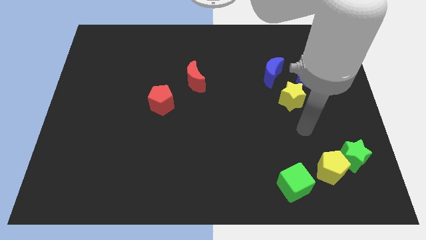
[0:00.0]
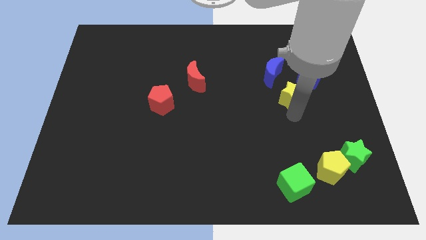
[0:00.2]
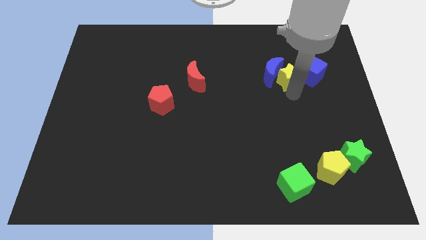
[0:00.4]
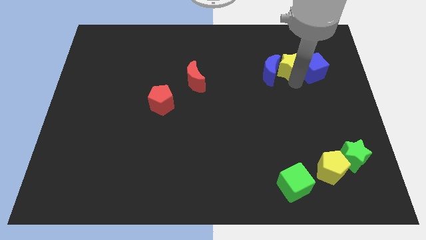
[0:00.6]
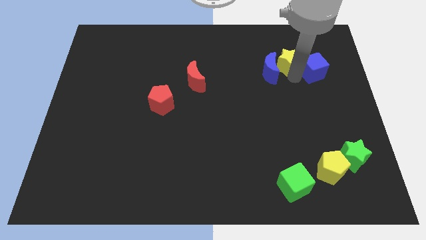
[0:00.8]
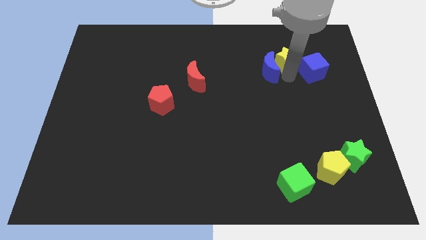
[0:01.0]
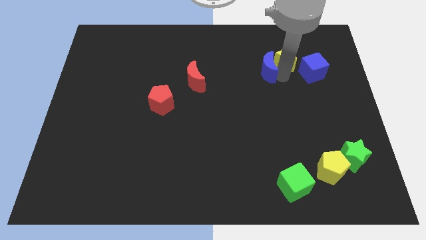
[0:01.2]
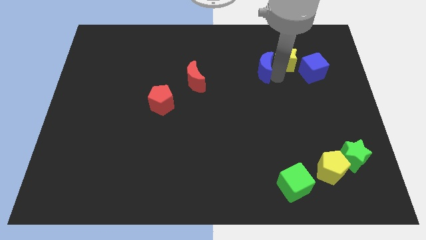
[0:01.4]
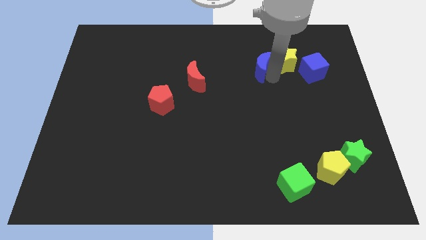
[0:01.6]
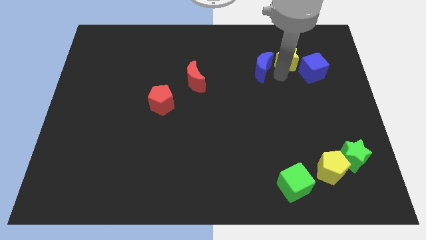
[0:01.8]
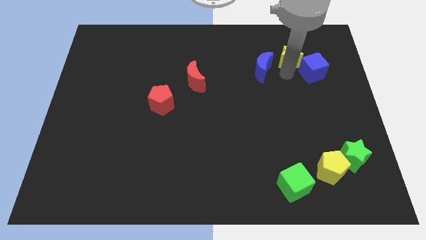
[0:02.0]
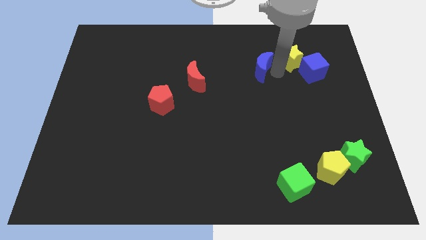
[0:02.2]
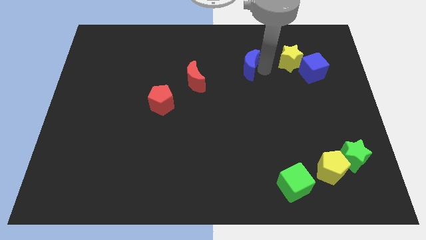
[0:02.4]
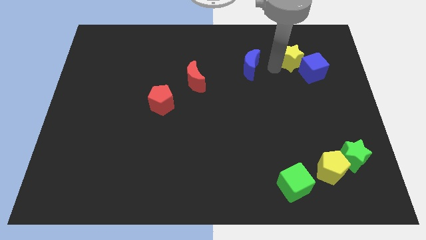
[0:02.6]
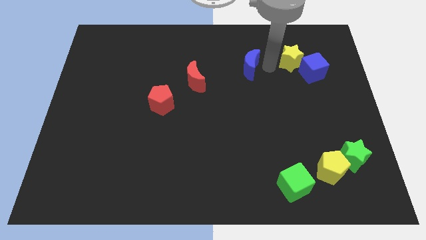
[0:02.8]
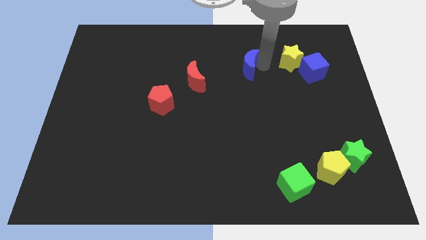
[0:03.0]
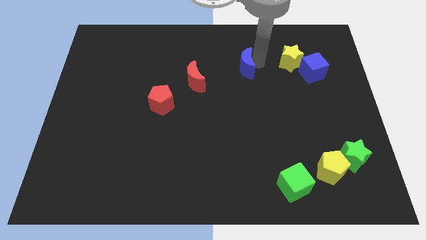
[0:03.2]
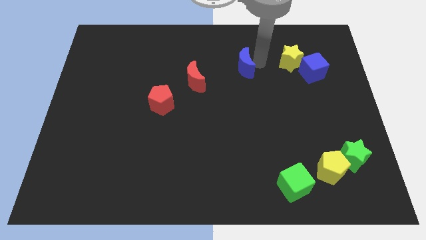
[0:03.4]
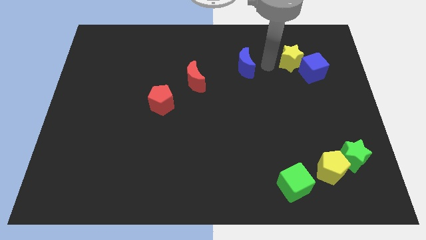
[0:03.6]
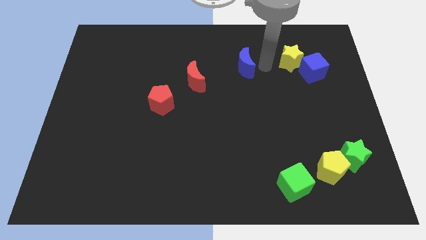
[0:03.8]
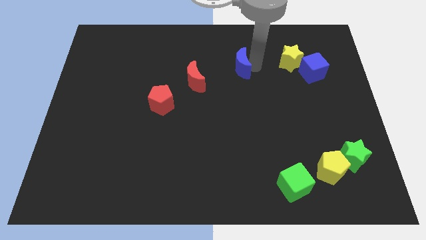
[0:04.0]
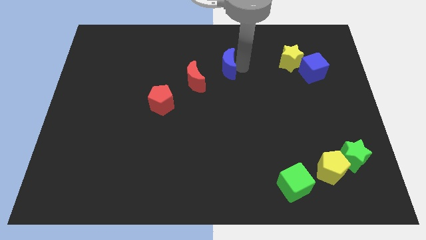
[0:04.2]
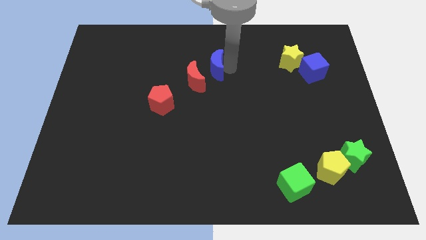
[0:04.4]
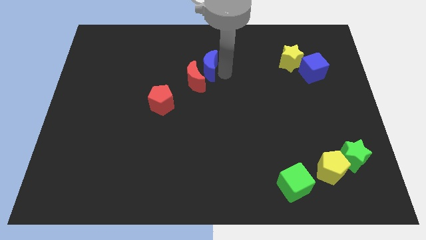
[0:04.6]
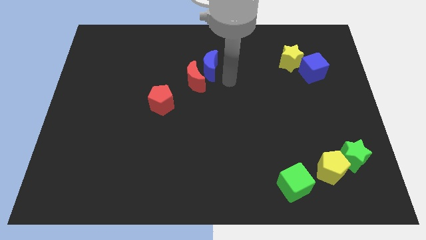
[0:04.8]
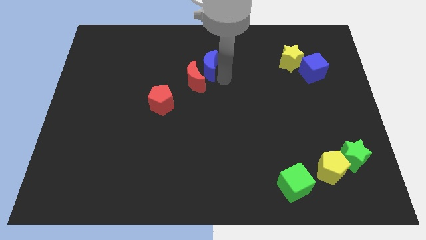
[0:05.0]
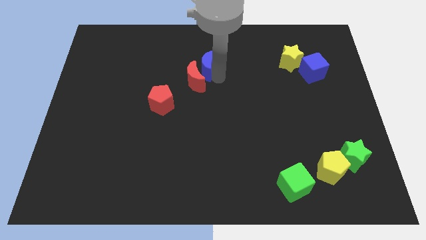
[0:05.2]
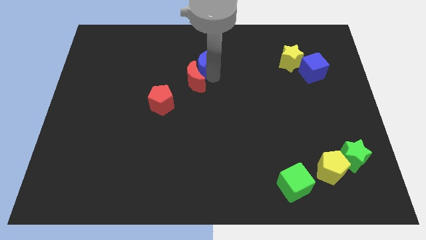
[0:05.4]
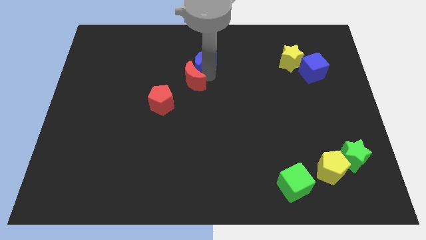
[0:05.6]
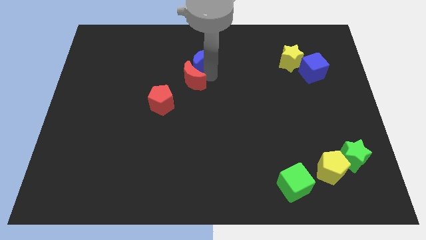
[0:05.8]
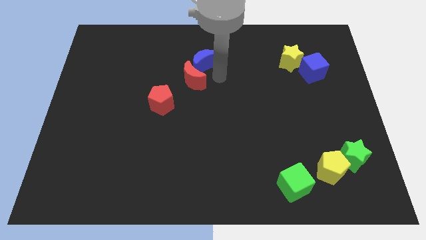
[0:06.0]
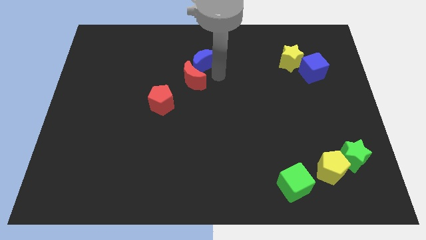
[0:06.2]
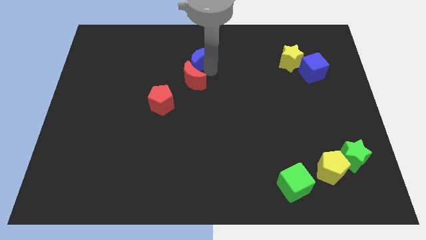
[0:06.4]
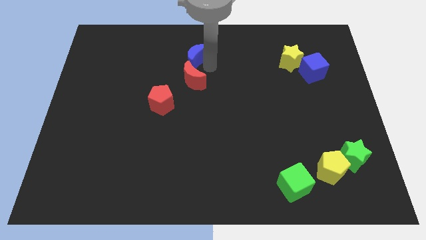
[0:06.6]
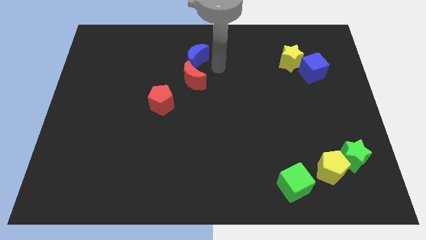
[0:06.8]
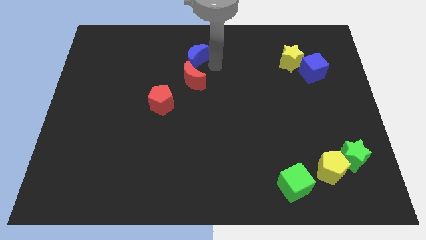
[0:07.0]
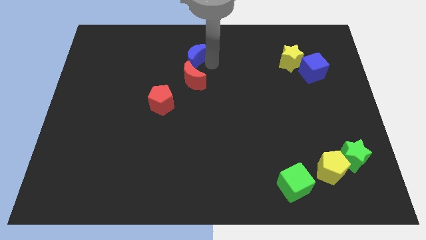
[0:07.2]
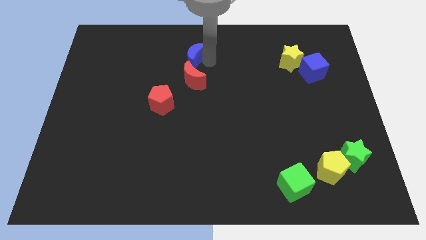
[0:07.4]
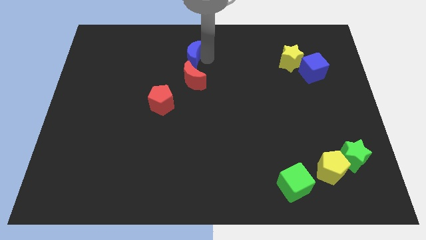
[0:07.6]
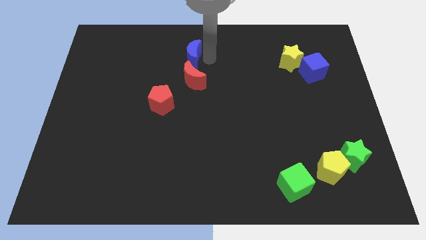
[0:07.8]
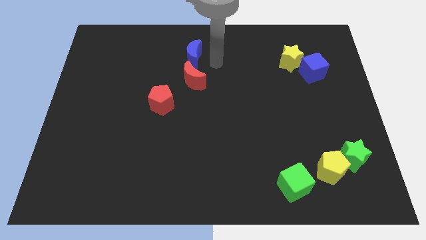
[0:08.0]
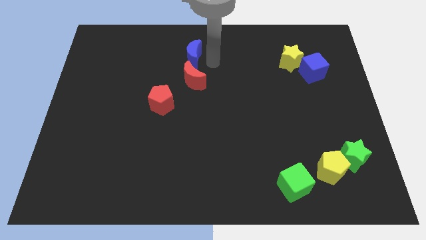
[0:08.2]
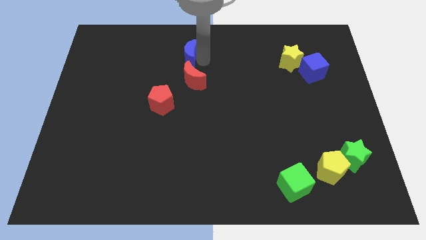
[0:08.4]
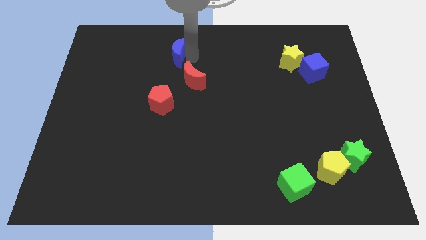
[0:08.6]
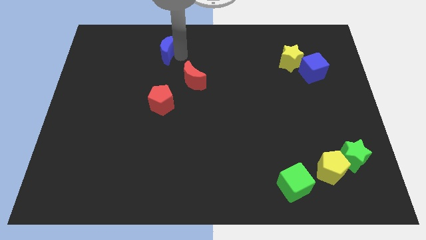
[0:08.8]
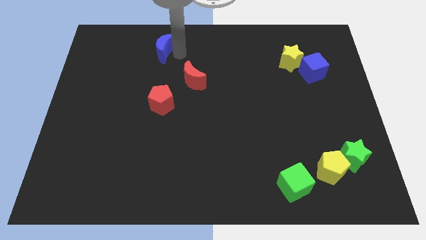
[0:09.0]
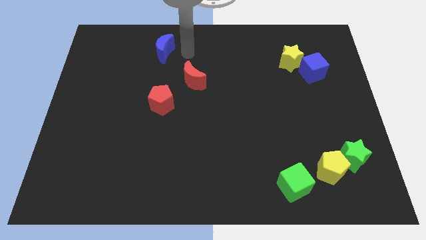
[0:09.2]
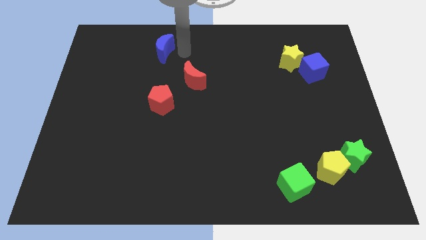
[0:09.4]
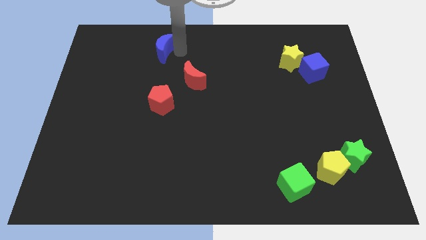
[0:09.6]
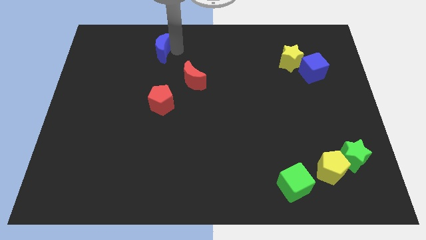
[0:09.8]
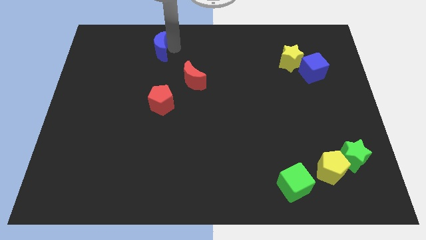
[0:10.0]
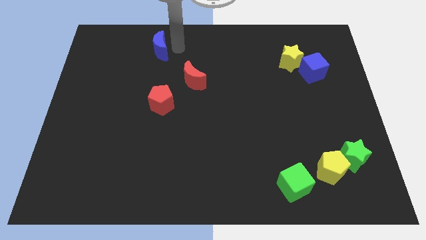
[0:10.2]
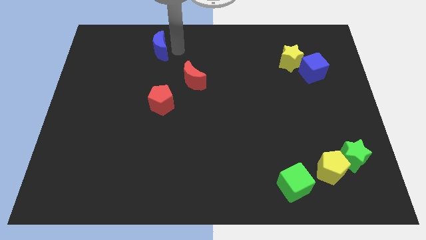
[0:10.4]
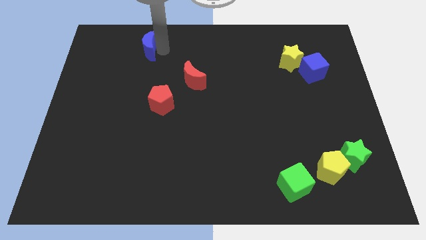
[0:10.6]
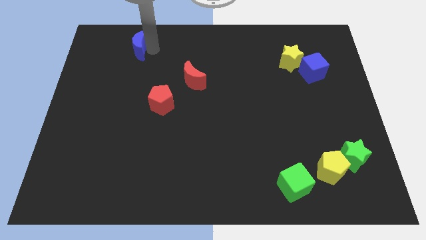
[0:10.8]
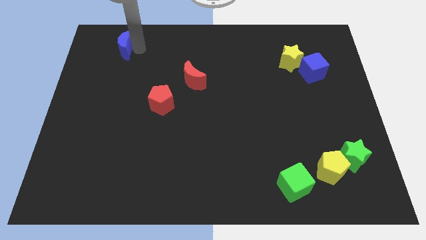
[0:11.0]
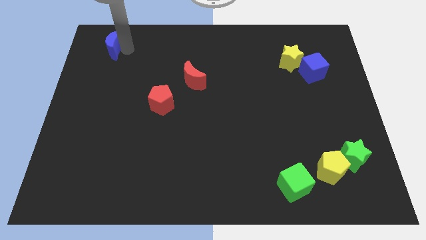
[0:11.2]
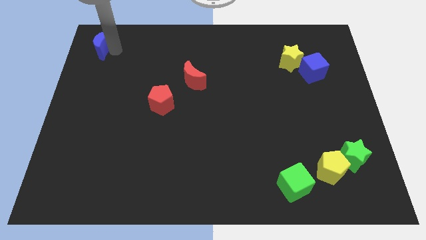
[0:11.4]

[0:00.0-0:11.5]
slide the blue moon to the upper left corner

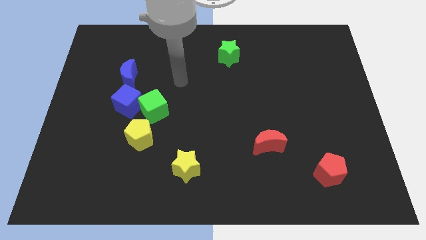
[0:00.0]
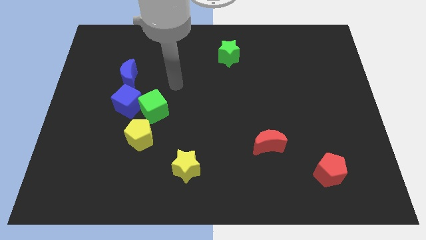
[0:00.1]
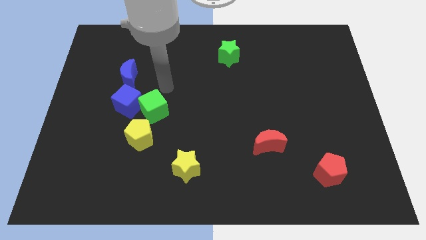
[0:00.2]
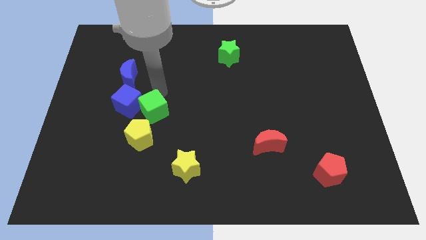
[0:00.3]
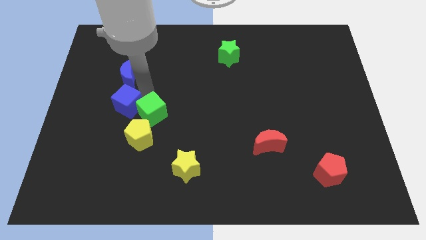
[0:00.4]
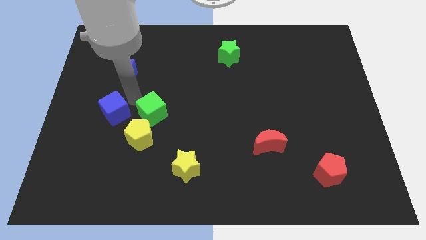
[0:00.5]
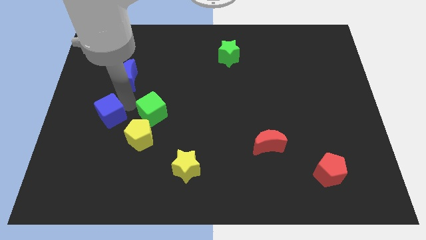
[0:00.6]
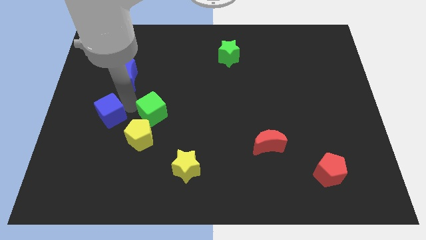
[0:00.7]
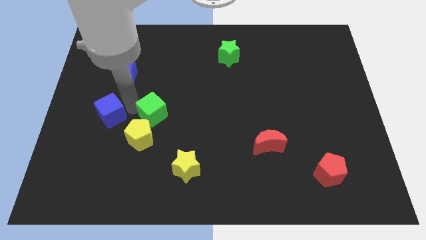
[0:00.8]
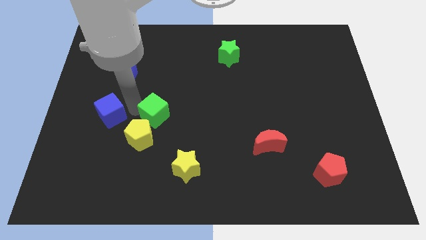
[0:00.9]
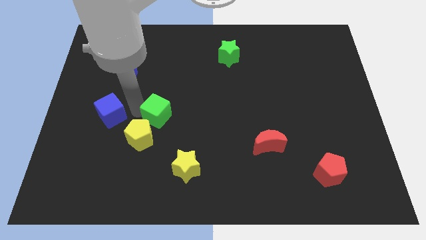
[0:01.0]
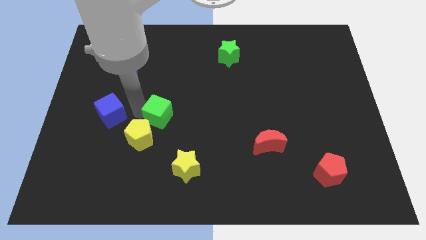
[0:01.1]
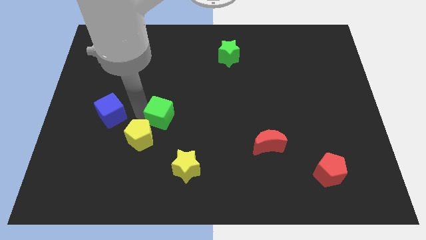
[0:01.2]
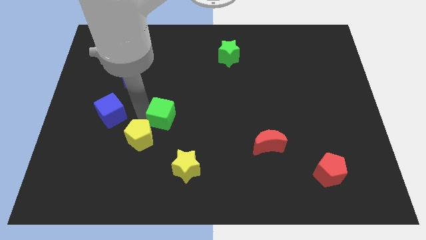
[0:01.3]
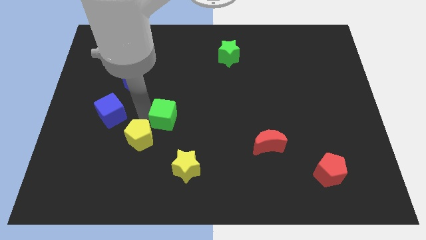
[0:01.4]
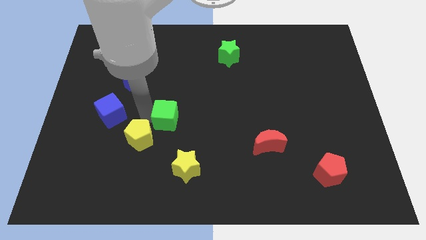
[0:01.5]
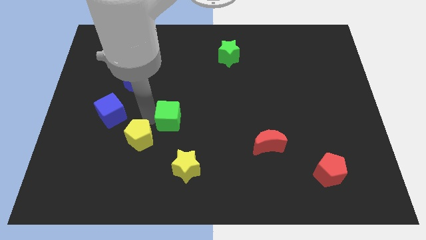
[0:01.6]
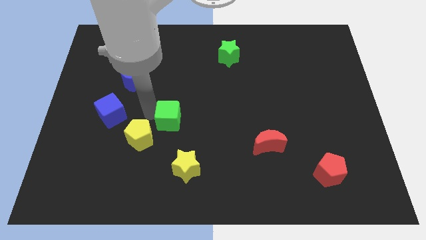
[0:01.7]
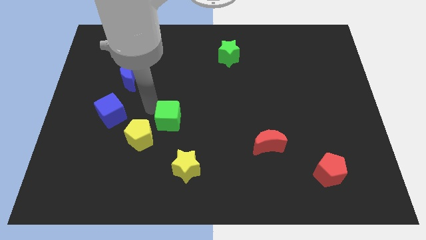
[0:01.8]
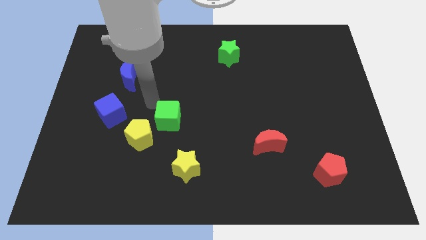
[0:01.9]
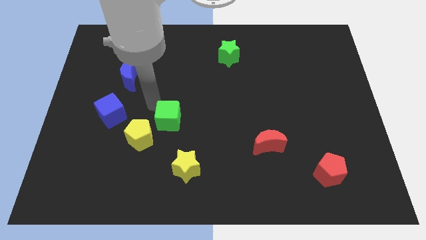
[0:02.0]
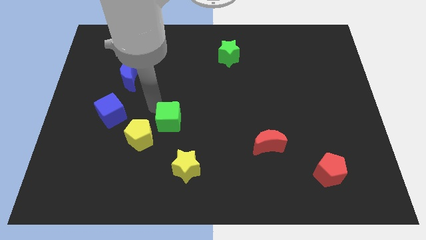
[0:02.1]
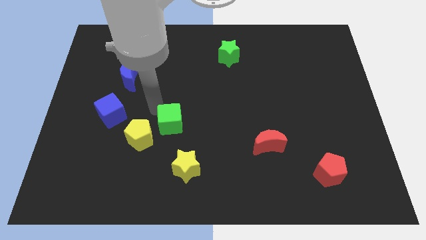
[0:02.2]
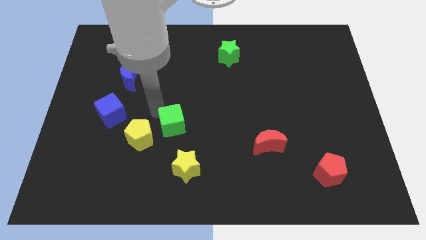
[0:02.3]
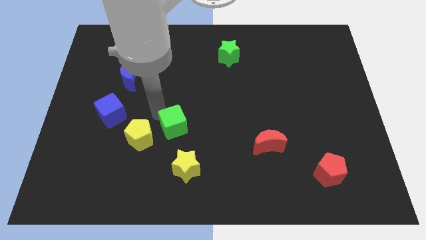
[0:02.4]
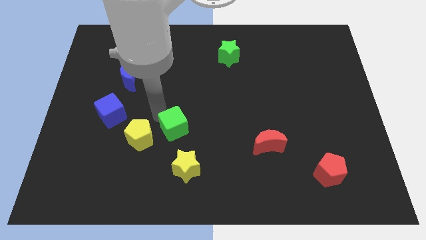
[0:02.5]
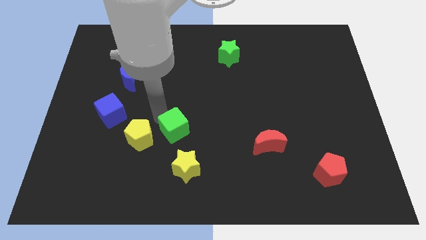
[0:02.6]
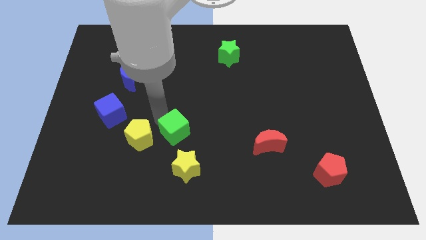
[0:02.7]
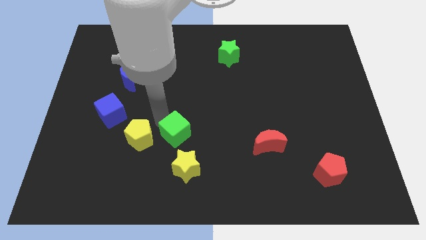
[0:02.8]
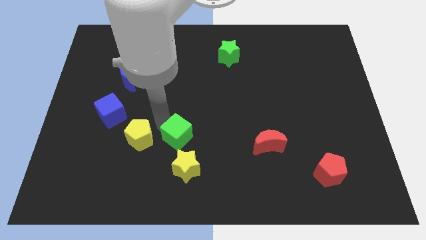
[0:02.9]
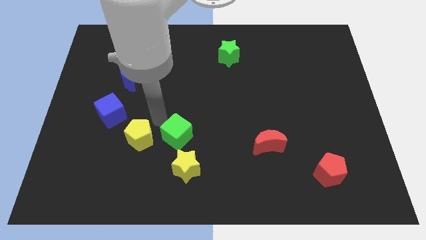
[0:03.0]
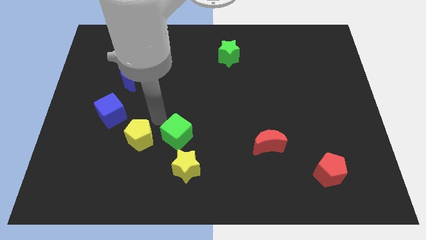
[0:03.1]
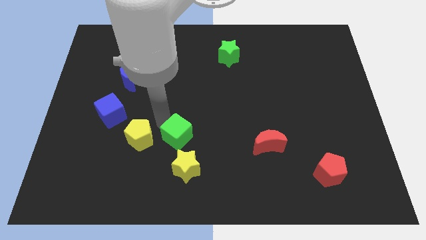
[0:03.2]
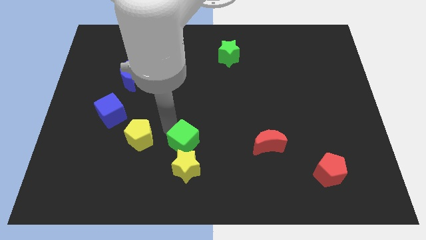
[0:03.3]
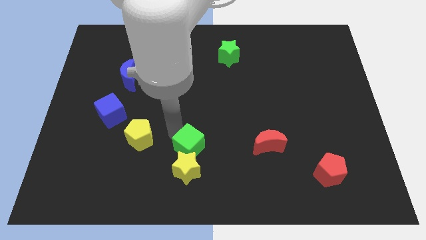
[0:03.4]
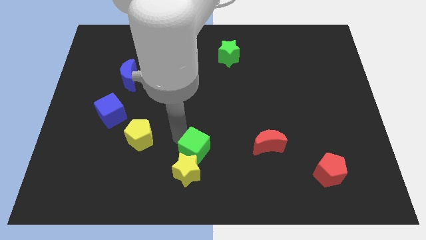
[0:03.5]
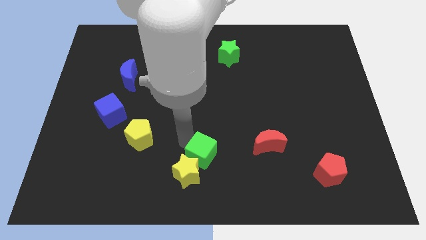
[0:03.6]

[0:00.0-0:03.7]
move the green cube to the bottom side
